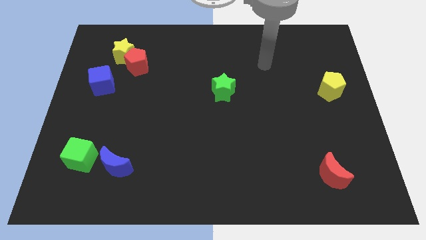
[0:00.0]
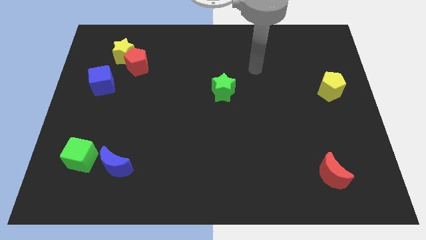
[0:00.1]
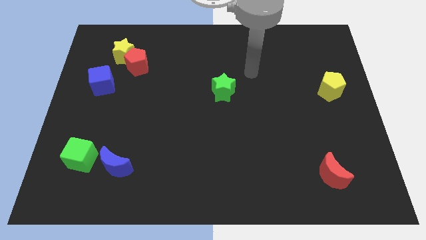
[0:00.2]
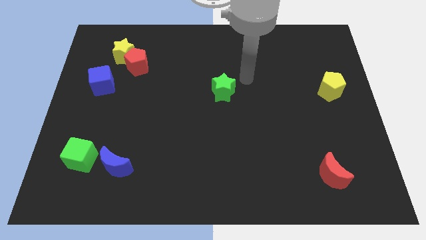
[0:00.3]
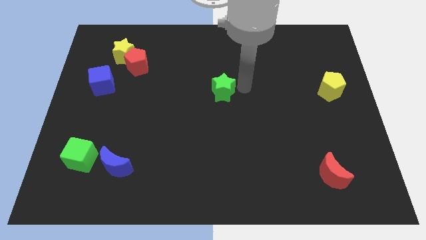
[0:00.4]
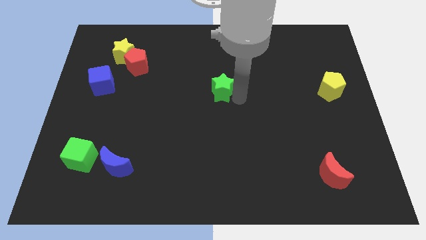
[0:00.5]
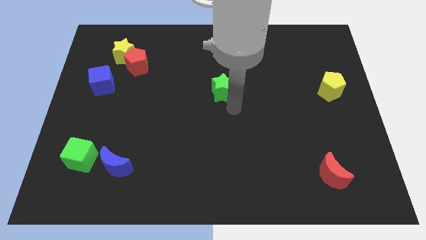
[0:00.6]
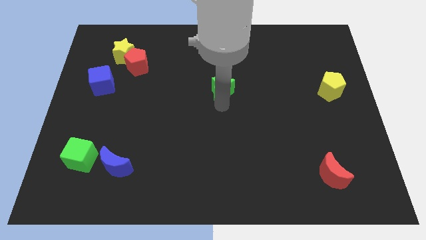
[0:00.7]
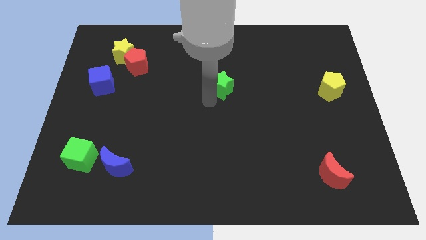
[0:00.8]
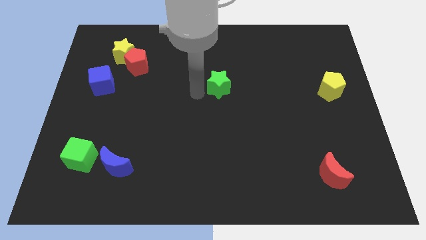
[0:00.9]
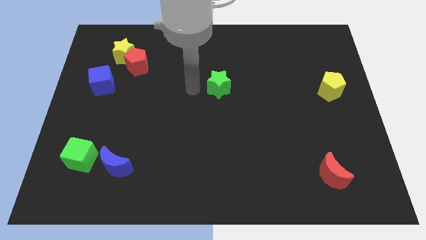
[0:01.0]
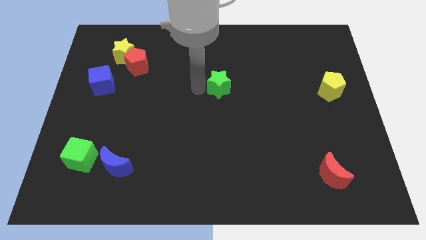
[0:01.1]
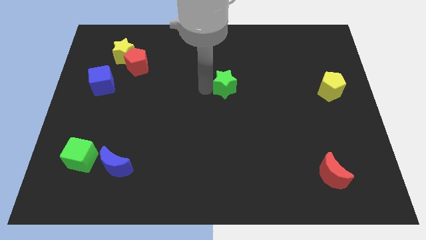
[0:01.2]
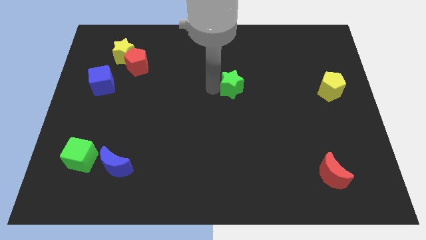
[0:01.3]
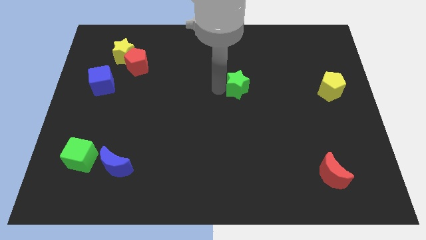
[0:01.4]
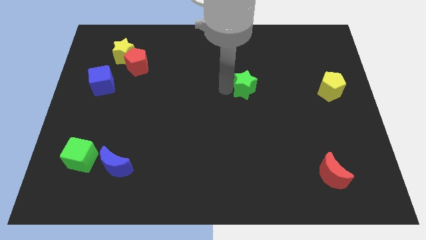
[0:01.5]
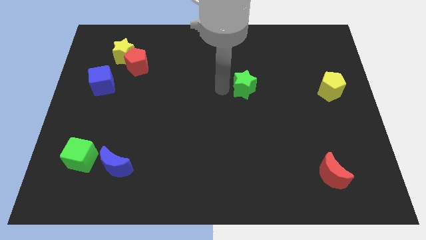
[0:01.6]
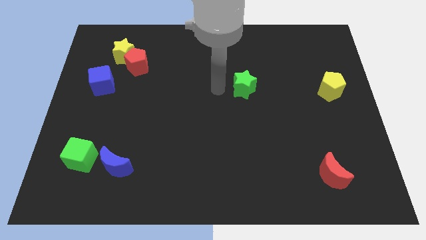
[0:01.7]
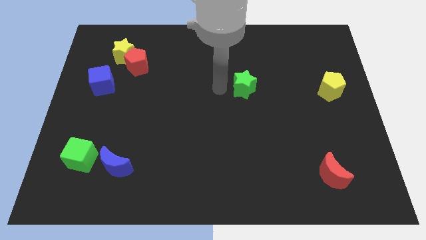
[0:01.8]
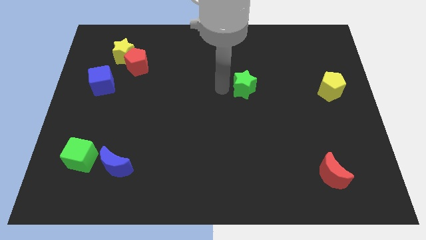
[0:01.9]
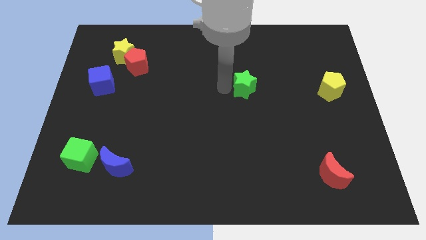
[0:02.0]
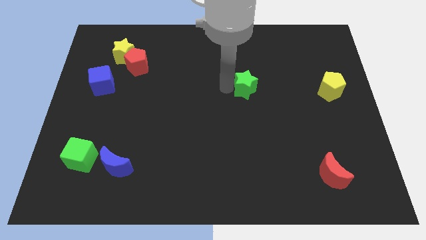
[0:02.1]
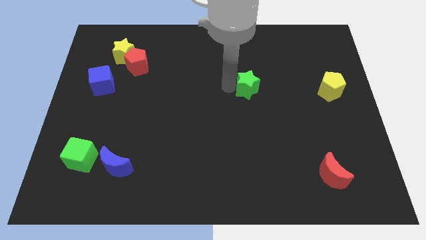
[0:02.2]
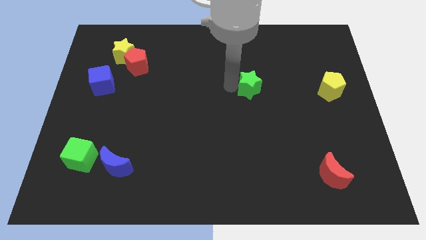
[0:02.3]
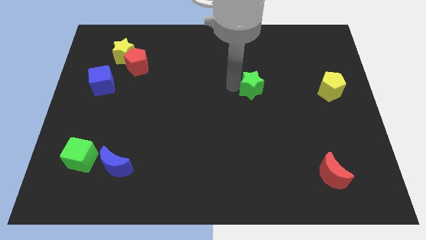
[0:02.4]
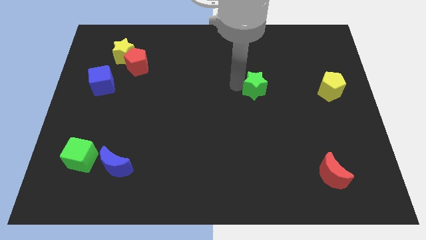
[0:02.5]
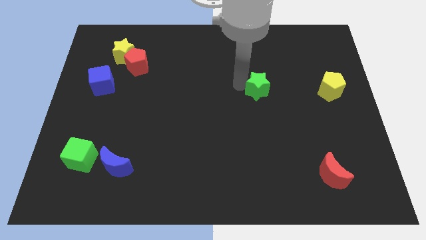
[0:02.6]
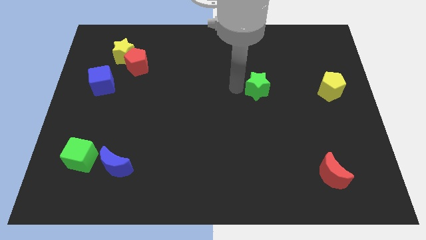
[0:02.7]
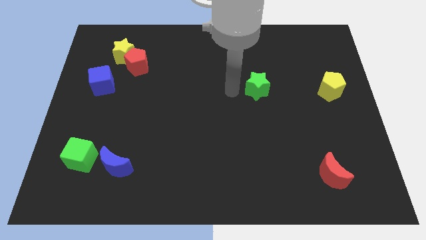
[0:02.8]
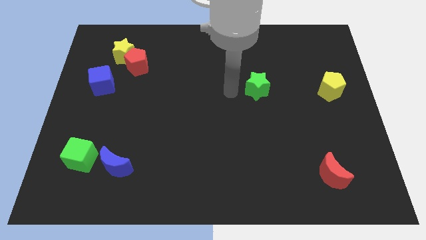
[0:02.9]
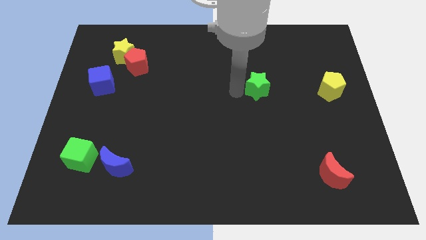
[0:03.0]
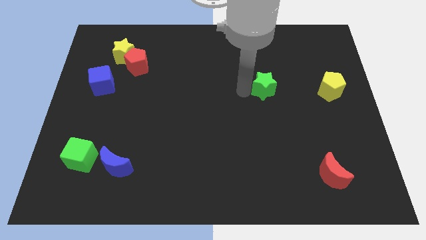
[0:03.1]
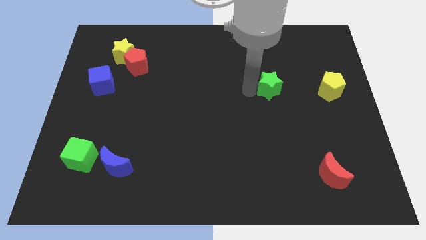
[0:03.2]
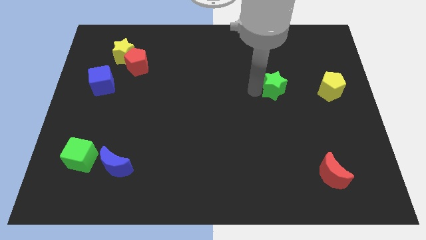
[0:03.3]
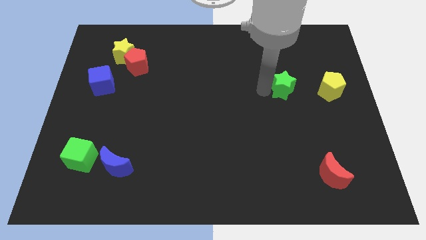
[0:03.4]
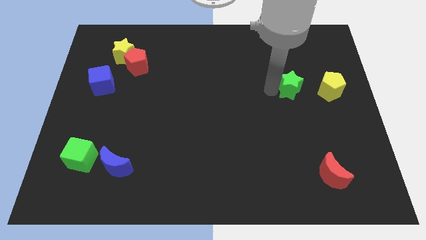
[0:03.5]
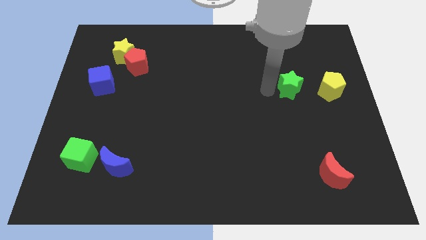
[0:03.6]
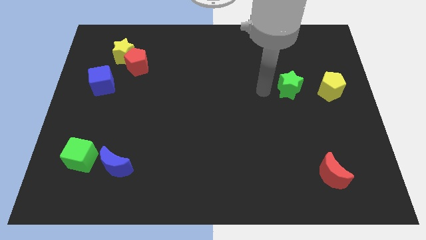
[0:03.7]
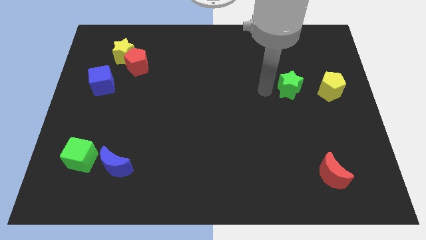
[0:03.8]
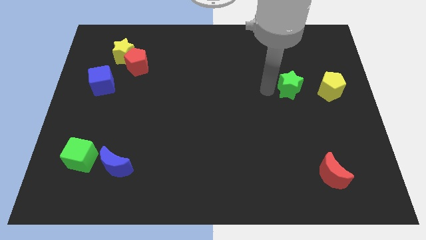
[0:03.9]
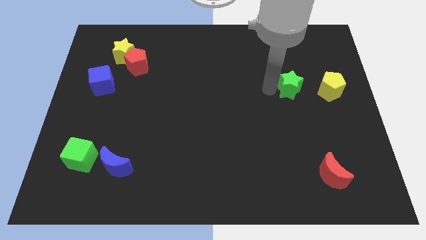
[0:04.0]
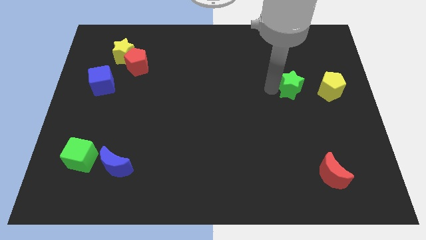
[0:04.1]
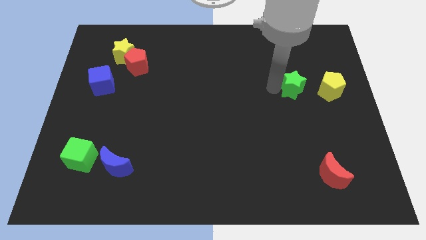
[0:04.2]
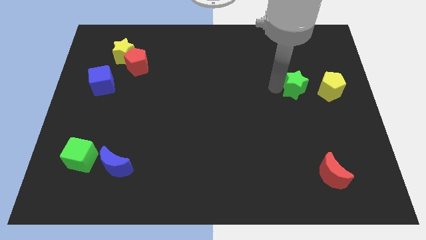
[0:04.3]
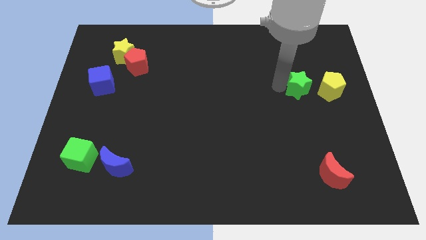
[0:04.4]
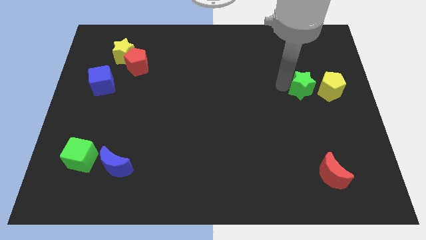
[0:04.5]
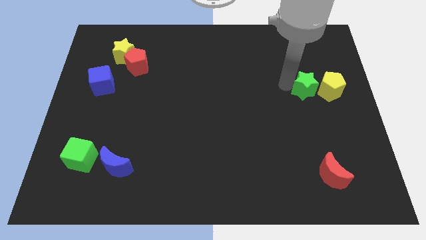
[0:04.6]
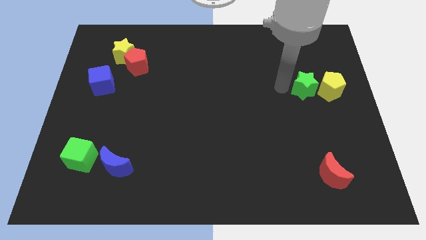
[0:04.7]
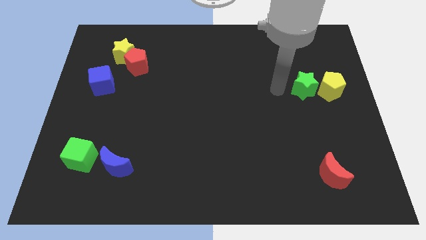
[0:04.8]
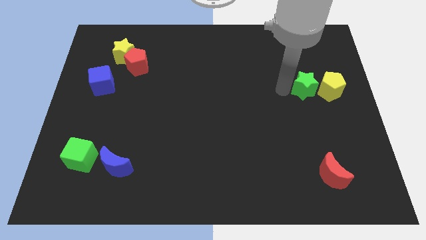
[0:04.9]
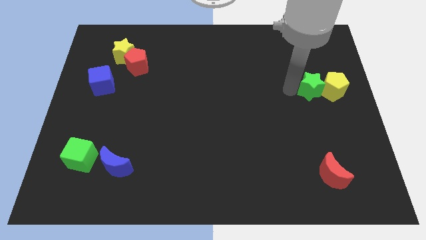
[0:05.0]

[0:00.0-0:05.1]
put the green star close to the yellow pentagon
